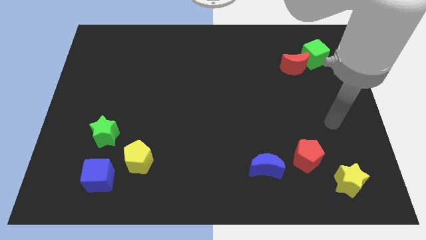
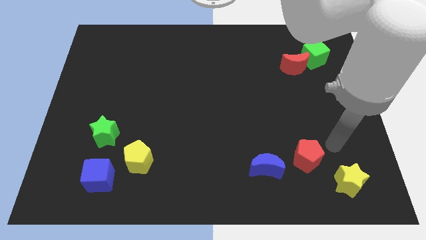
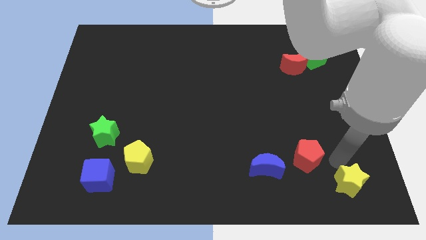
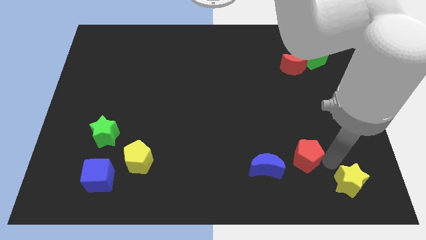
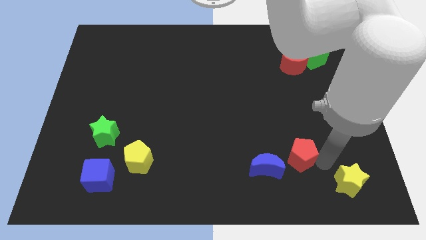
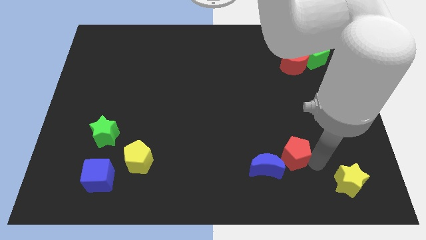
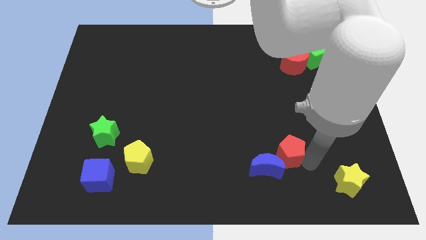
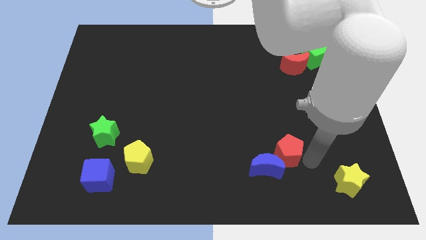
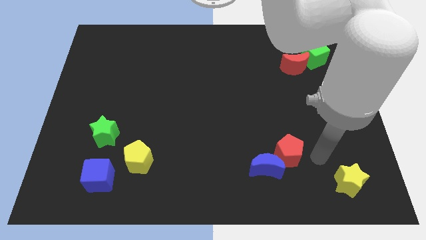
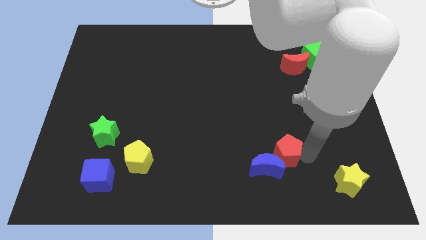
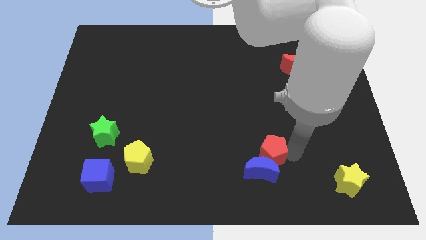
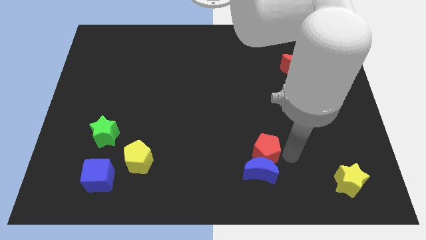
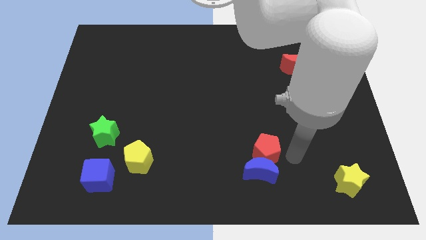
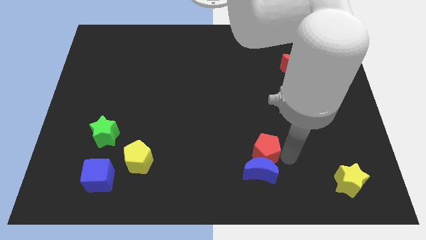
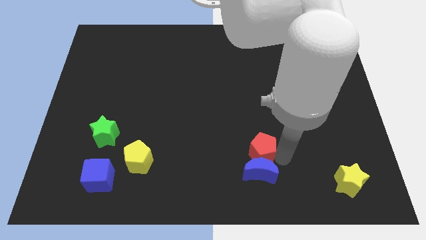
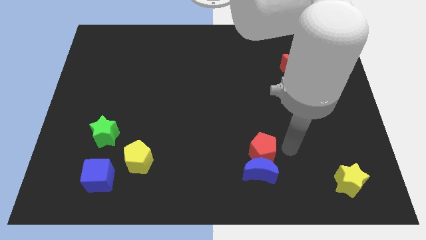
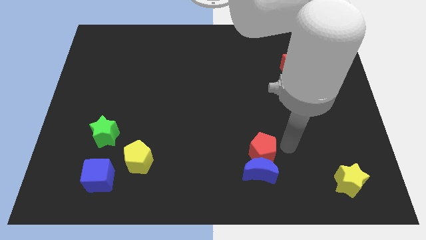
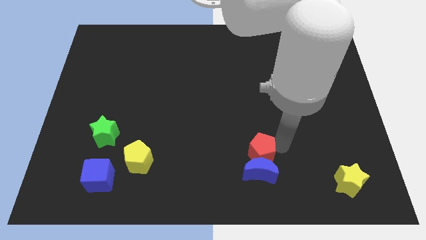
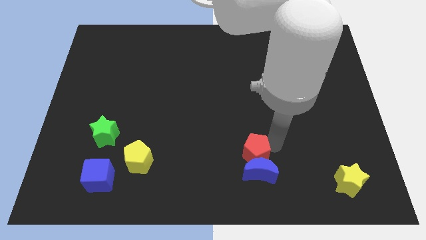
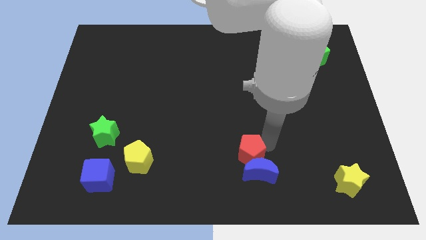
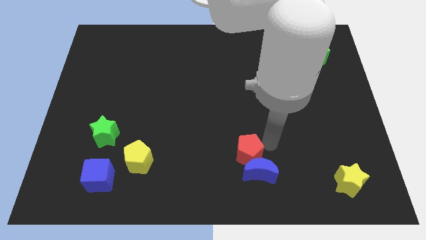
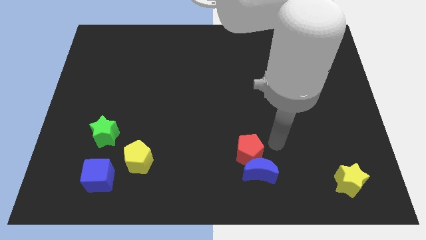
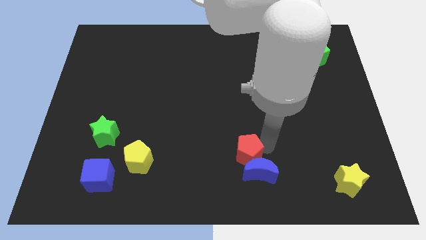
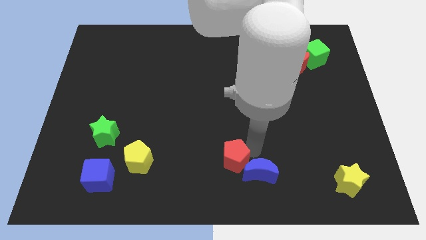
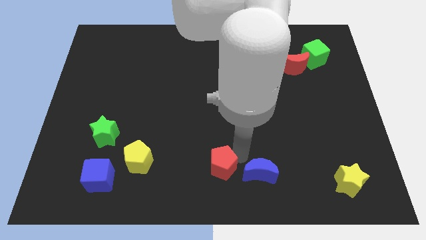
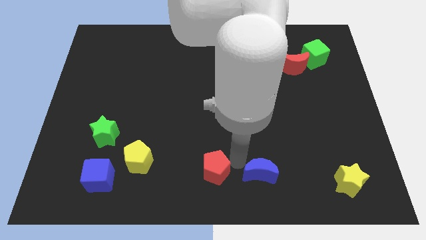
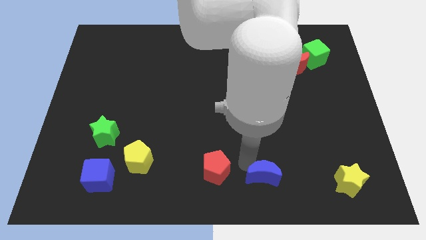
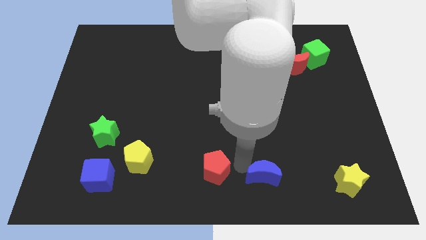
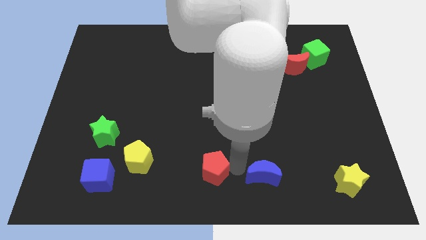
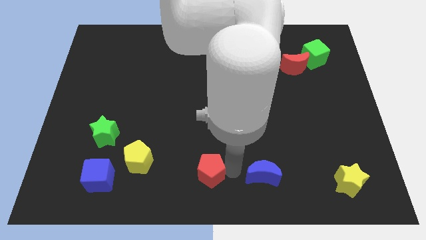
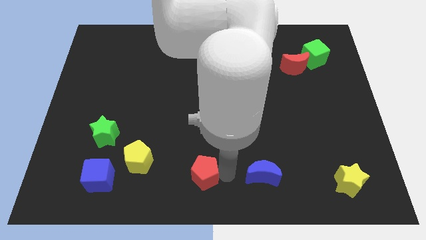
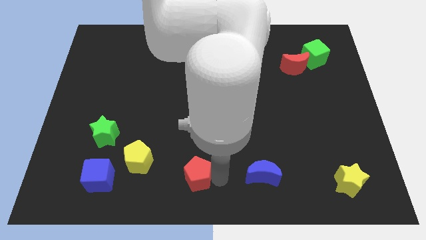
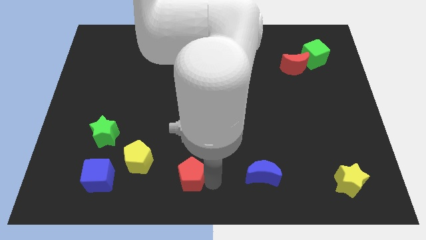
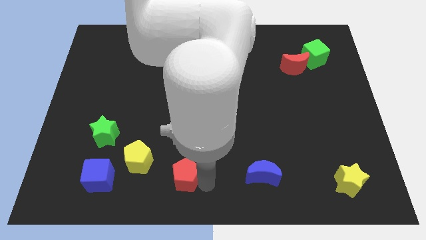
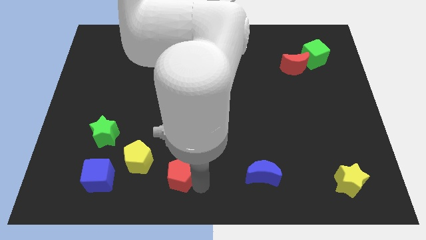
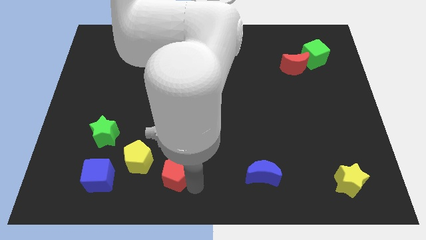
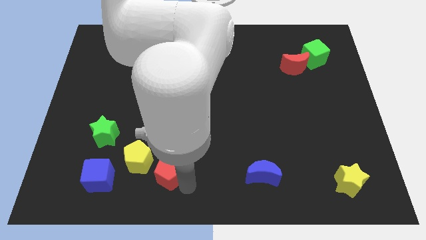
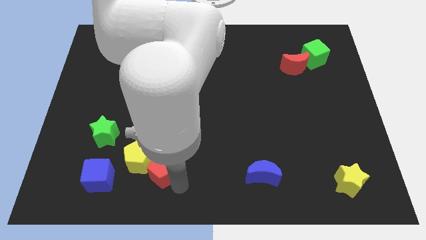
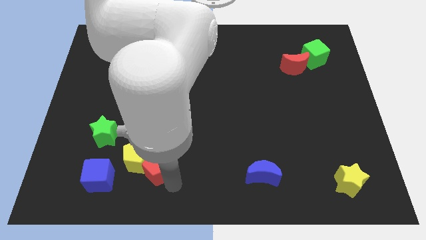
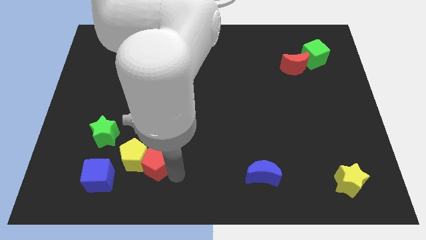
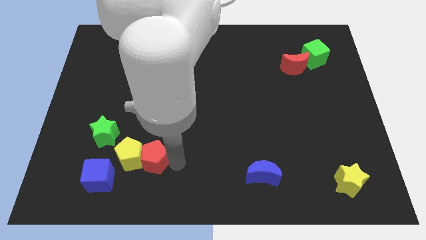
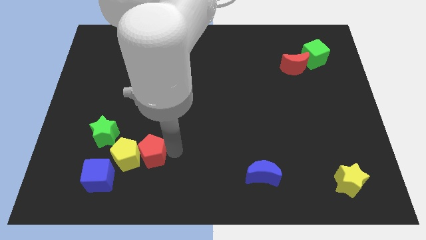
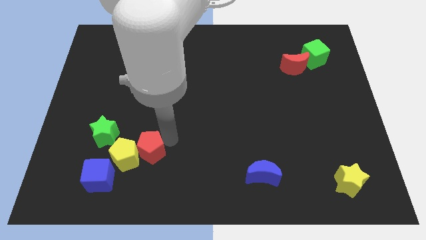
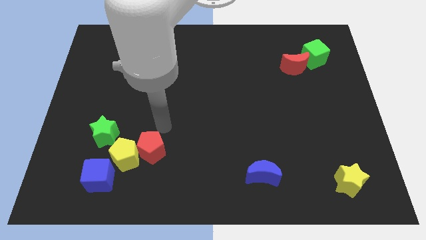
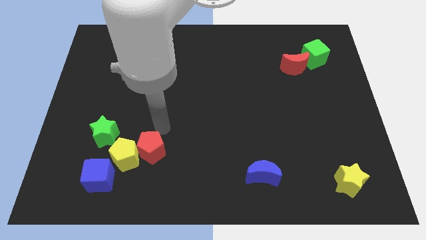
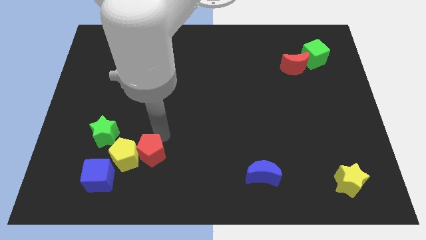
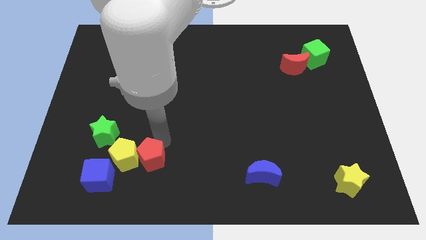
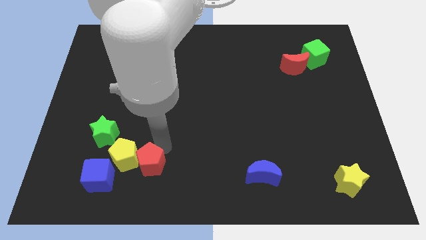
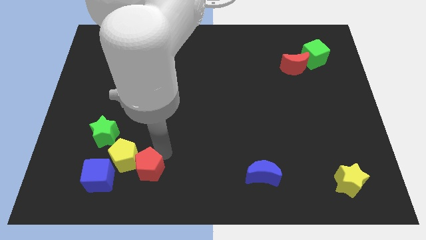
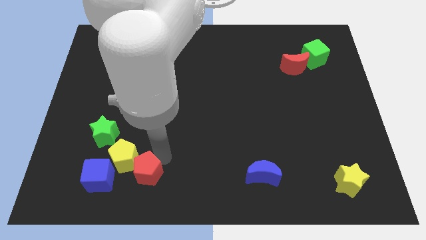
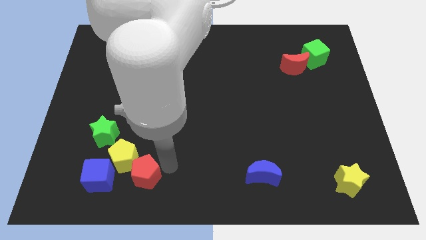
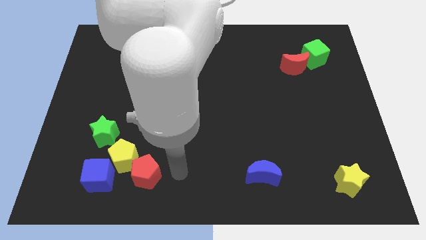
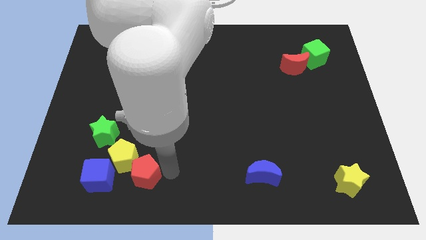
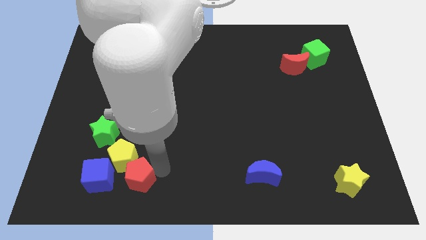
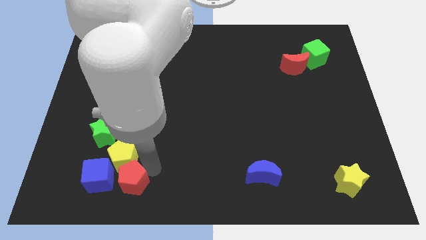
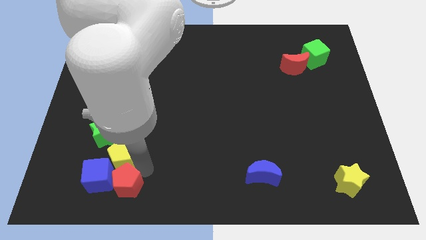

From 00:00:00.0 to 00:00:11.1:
push the red pentagon towards the blue cube
